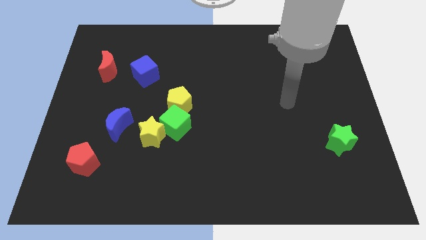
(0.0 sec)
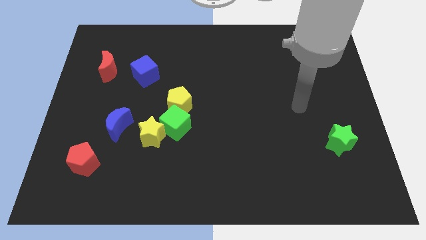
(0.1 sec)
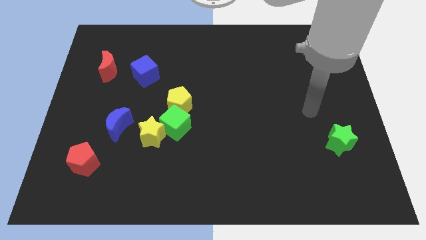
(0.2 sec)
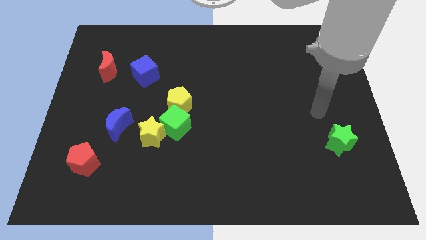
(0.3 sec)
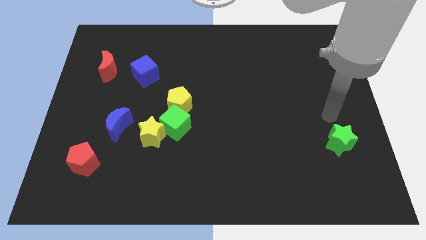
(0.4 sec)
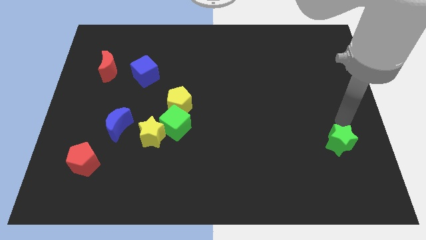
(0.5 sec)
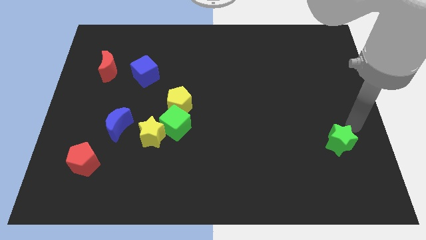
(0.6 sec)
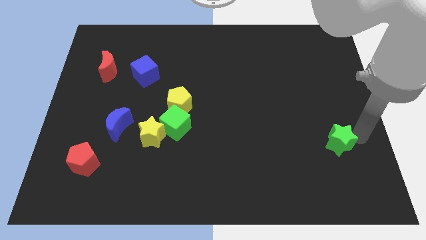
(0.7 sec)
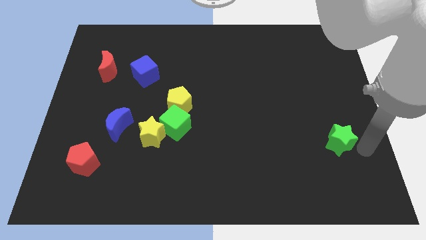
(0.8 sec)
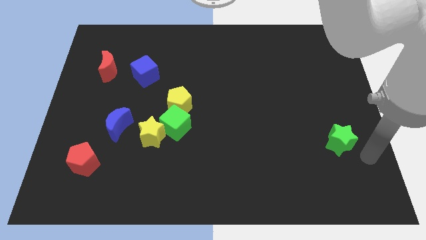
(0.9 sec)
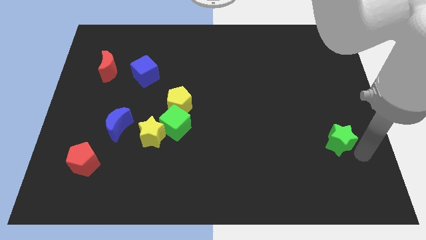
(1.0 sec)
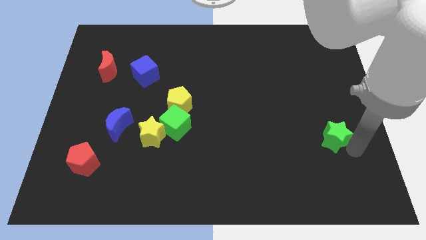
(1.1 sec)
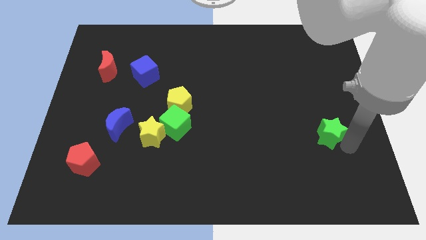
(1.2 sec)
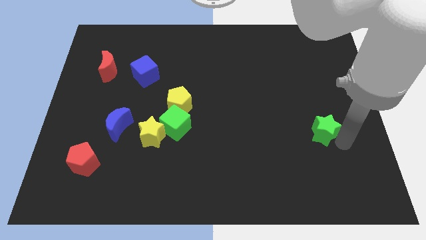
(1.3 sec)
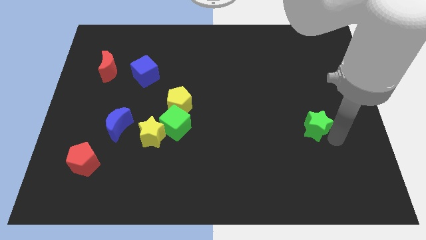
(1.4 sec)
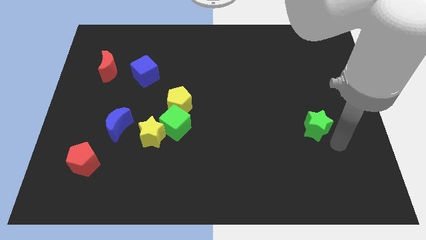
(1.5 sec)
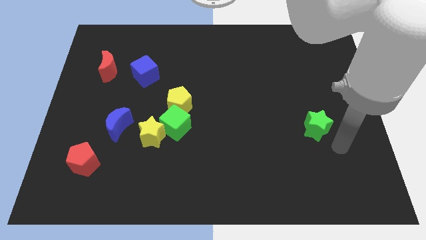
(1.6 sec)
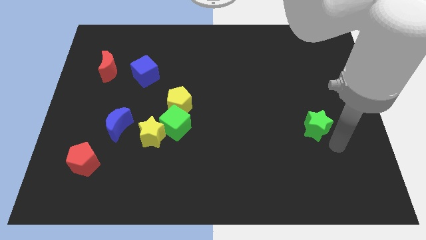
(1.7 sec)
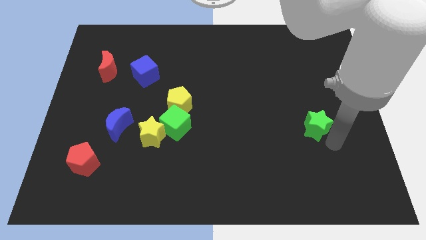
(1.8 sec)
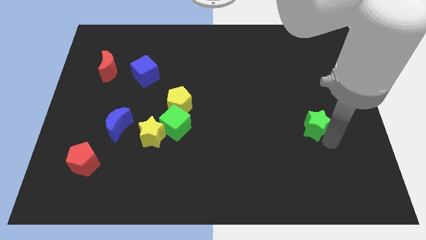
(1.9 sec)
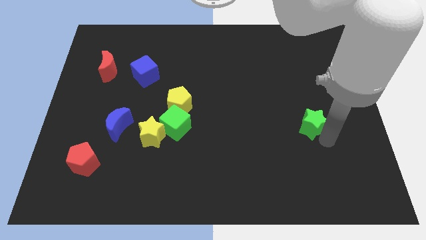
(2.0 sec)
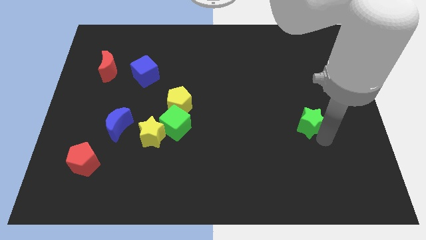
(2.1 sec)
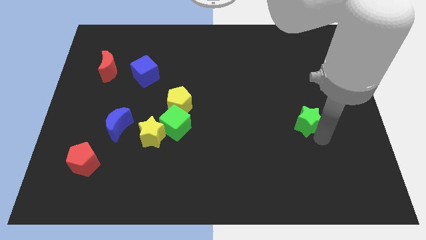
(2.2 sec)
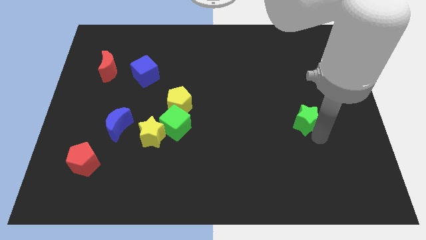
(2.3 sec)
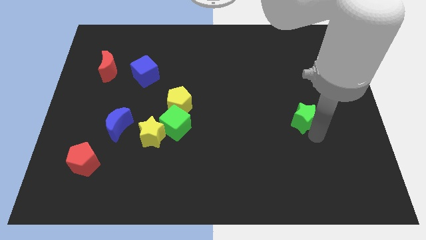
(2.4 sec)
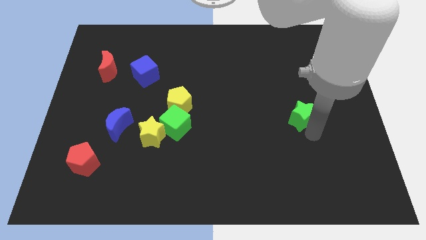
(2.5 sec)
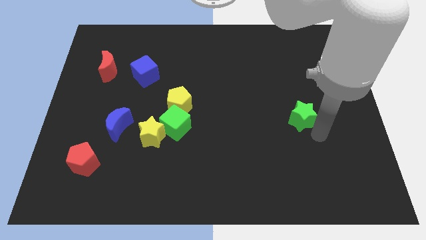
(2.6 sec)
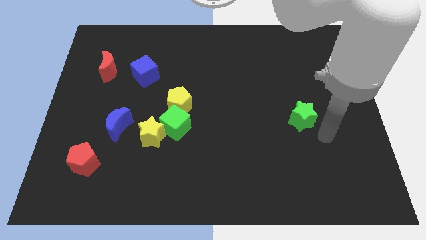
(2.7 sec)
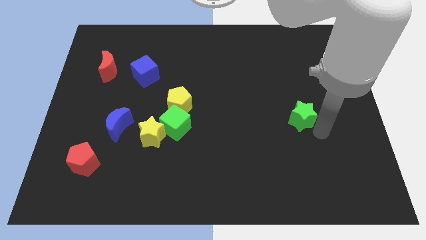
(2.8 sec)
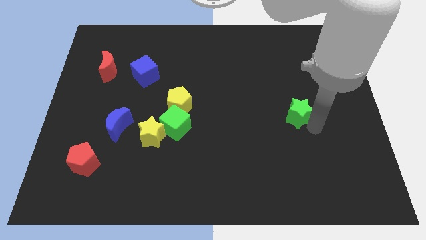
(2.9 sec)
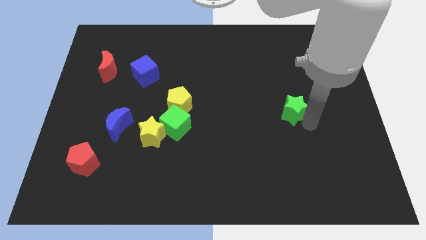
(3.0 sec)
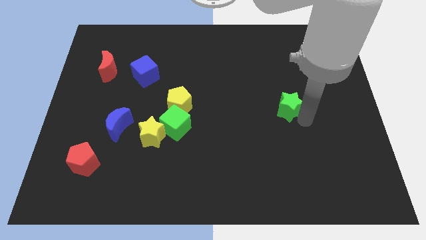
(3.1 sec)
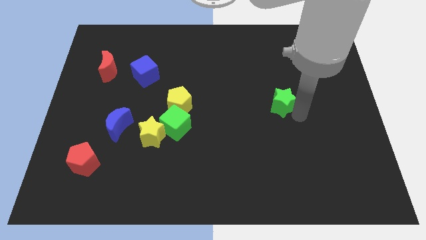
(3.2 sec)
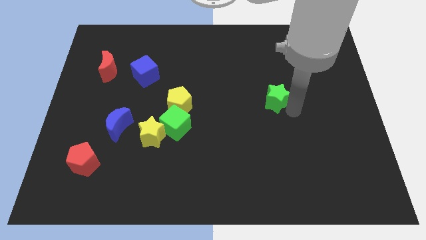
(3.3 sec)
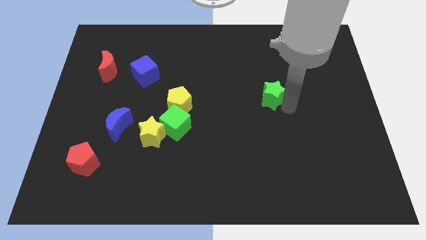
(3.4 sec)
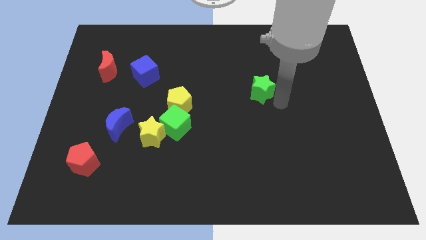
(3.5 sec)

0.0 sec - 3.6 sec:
move the green star diagonally up and left

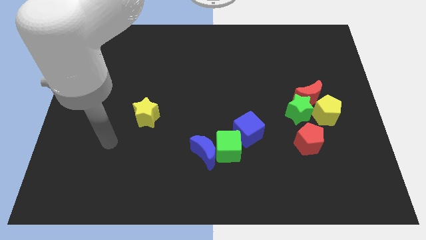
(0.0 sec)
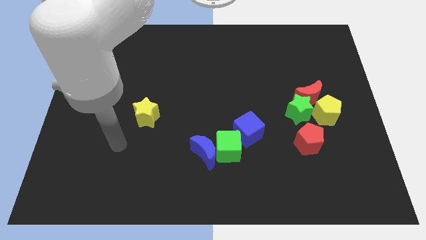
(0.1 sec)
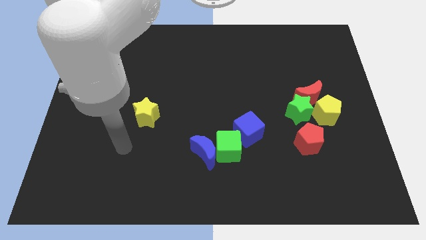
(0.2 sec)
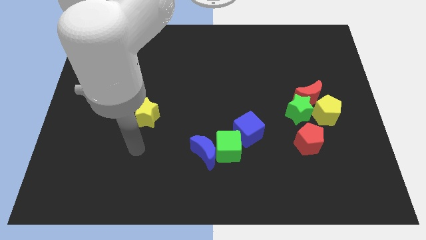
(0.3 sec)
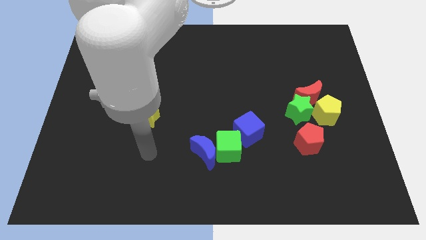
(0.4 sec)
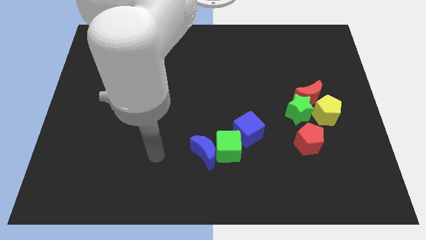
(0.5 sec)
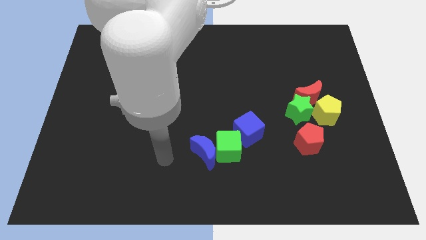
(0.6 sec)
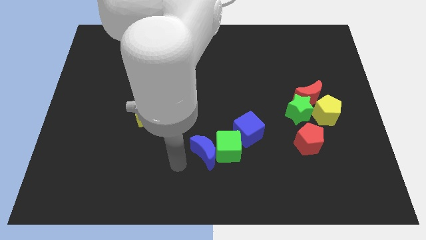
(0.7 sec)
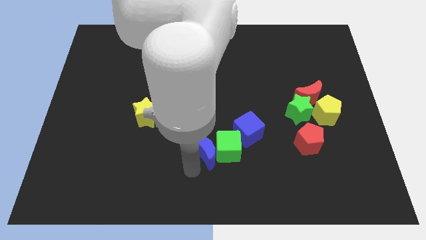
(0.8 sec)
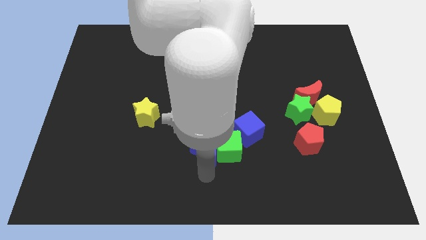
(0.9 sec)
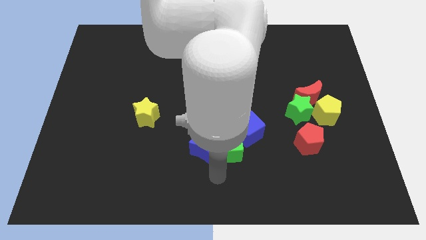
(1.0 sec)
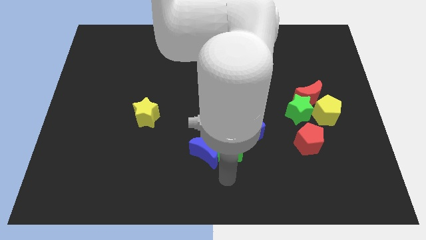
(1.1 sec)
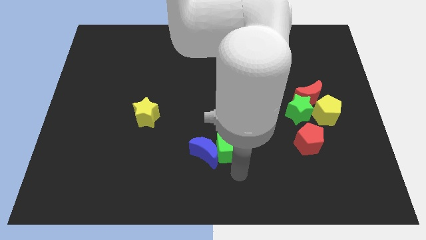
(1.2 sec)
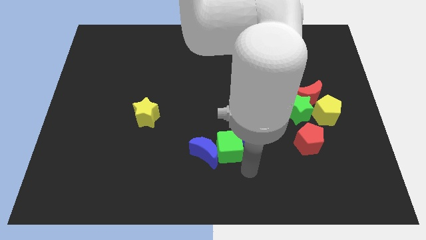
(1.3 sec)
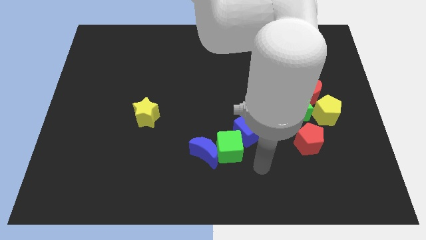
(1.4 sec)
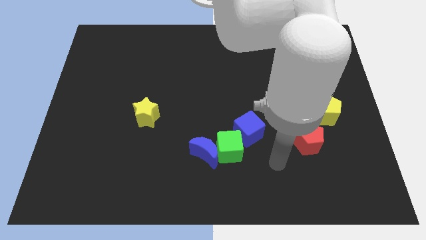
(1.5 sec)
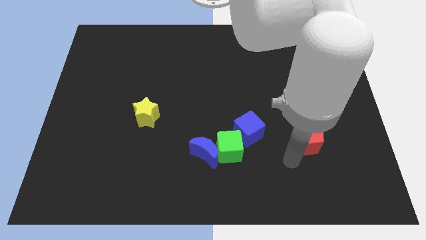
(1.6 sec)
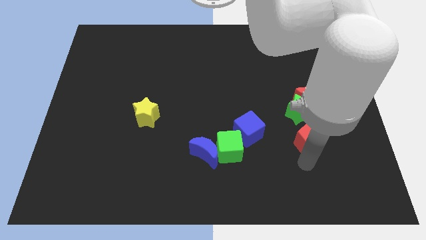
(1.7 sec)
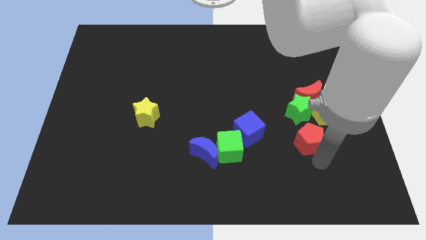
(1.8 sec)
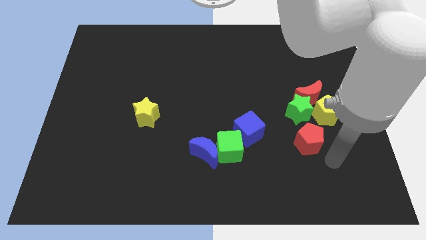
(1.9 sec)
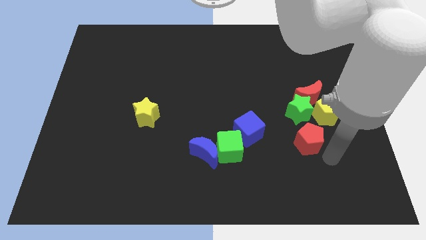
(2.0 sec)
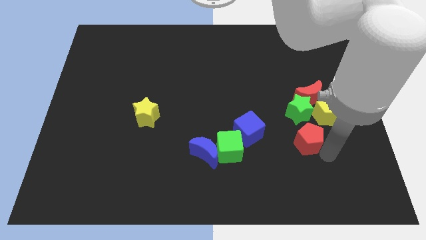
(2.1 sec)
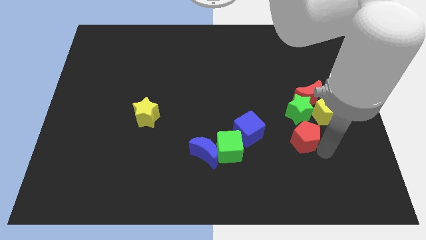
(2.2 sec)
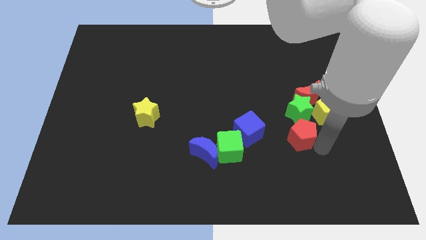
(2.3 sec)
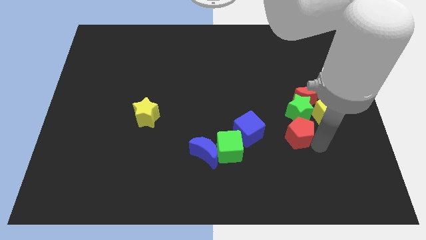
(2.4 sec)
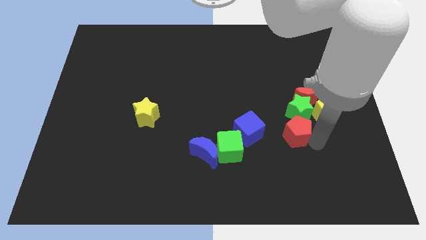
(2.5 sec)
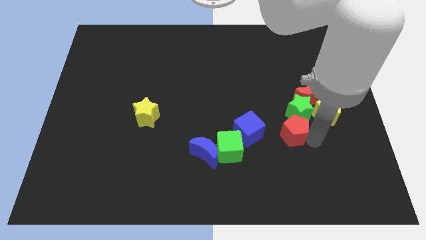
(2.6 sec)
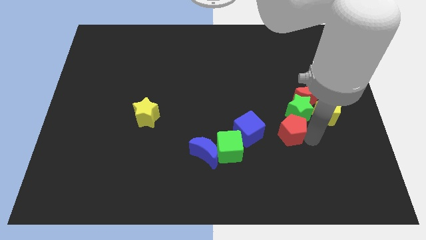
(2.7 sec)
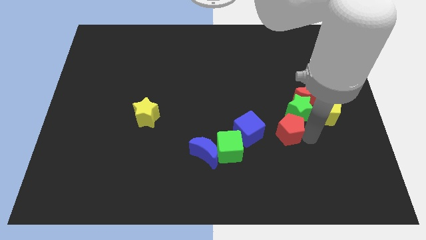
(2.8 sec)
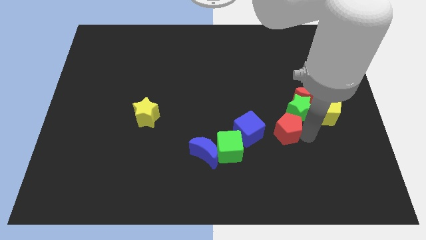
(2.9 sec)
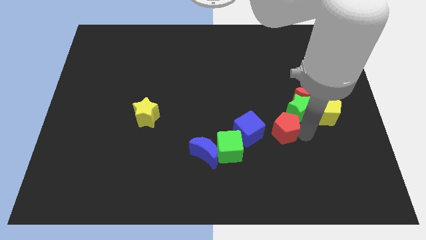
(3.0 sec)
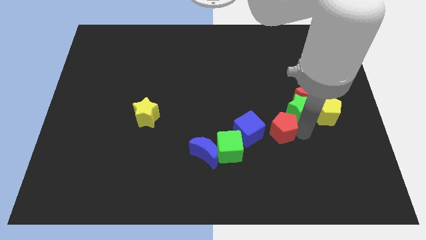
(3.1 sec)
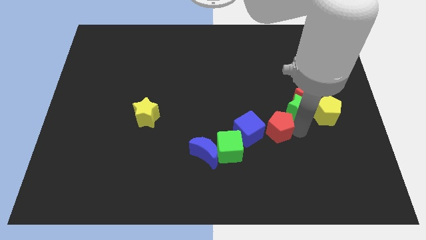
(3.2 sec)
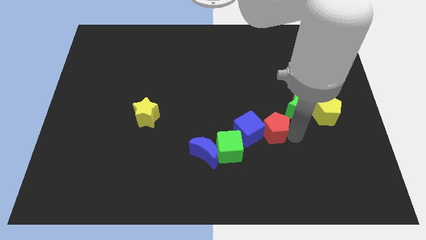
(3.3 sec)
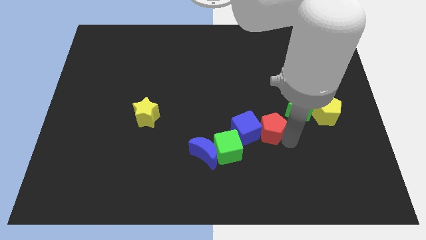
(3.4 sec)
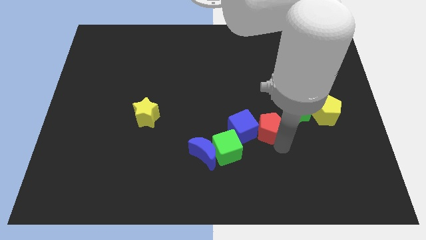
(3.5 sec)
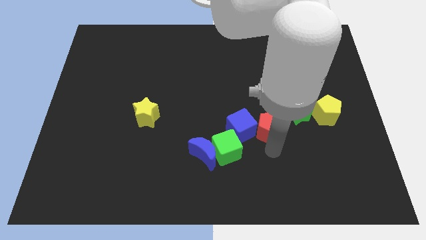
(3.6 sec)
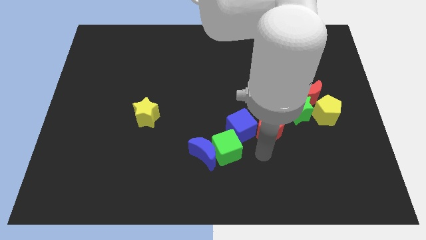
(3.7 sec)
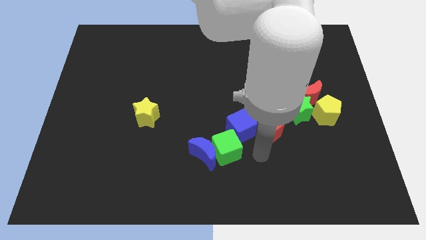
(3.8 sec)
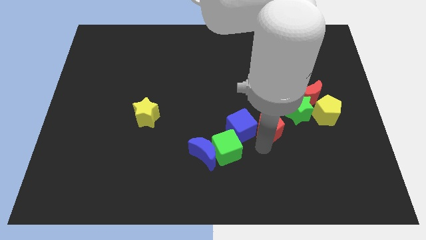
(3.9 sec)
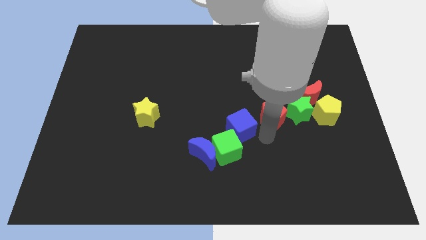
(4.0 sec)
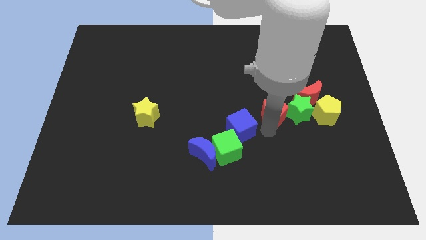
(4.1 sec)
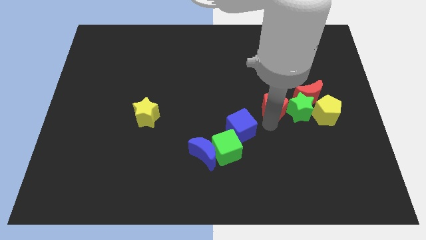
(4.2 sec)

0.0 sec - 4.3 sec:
slightly slide the red pentagon up

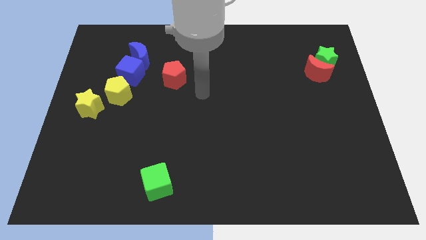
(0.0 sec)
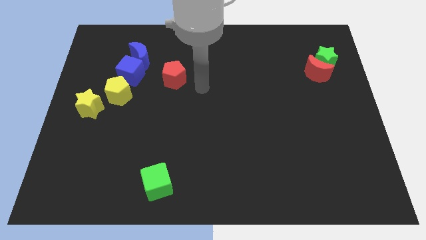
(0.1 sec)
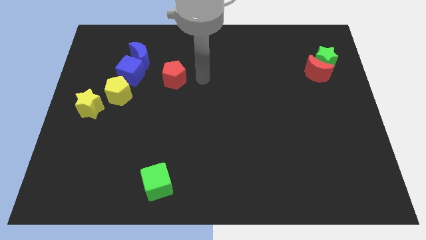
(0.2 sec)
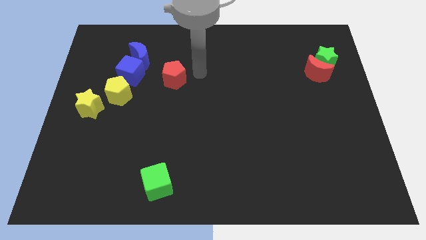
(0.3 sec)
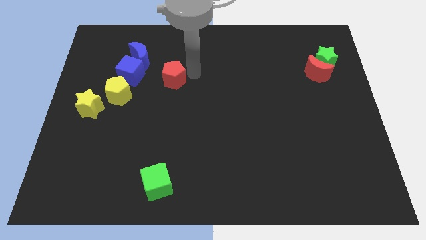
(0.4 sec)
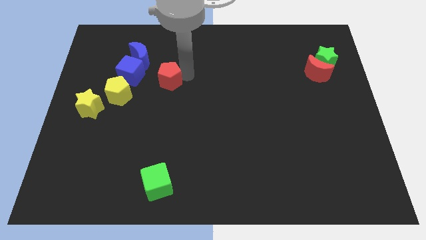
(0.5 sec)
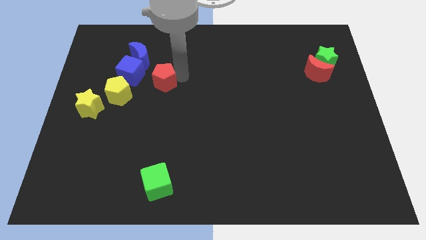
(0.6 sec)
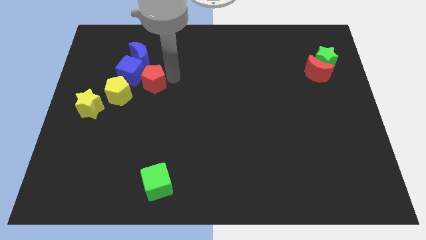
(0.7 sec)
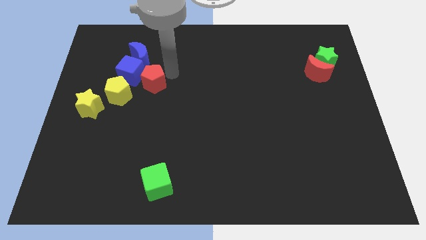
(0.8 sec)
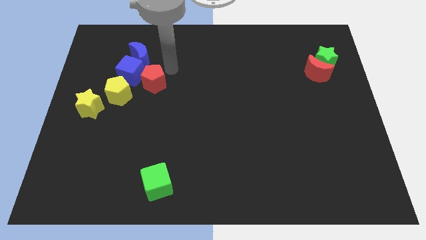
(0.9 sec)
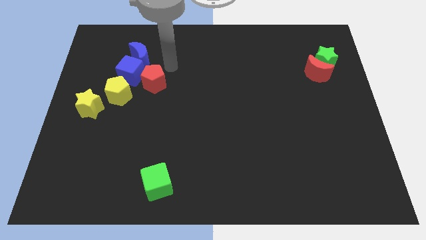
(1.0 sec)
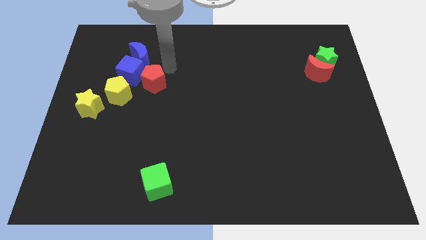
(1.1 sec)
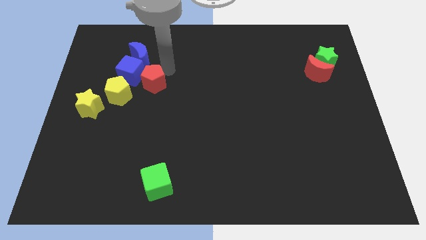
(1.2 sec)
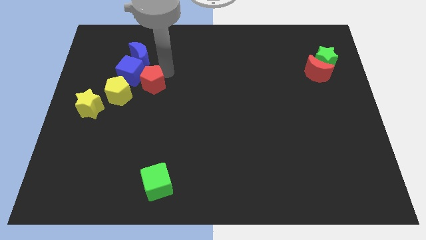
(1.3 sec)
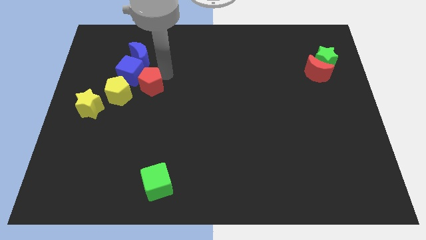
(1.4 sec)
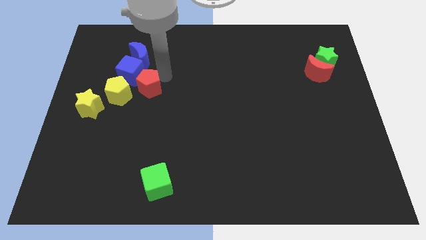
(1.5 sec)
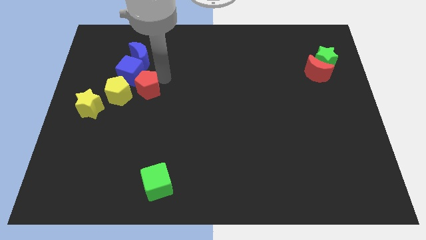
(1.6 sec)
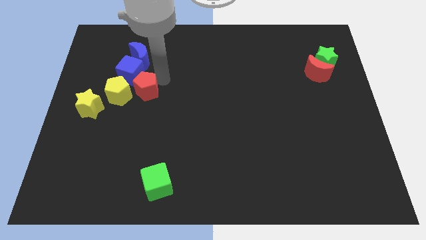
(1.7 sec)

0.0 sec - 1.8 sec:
slide the red pentagon a little down and to the left
